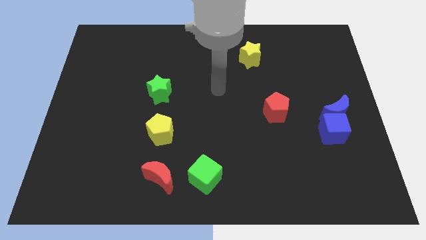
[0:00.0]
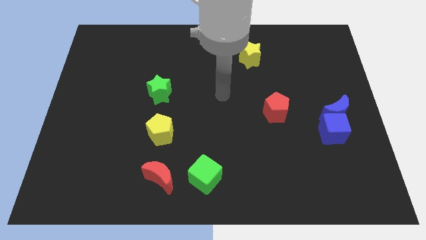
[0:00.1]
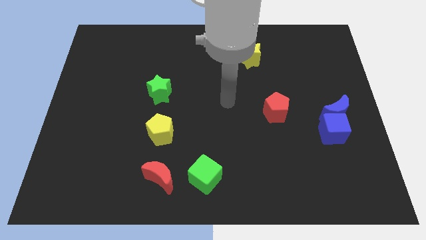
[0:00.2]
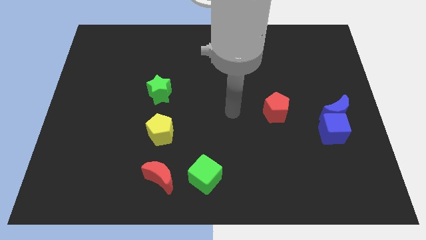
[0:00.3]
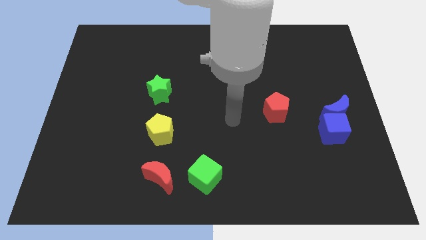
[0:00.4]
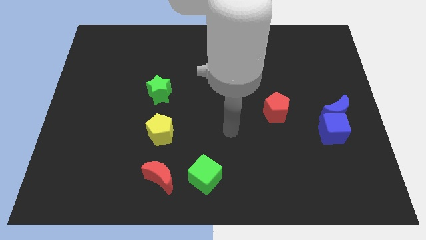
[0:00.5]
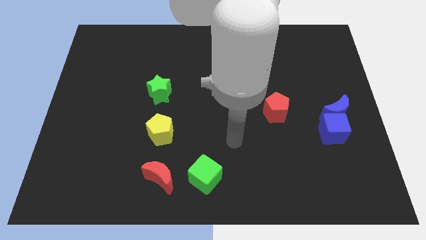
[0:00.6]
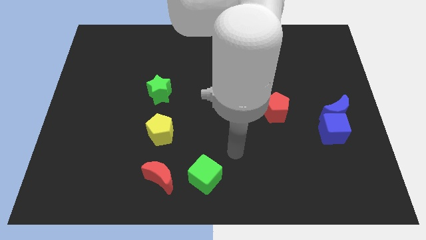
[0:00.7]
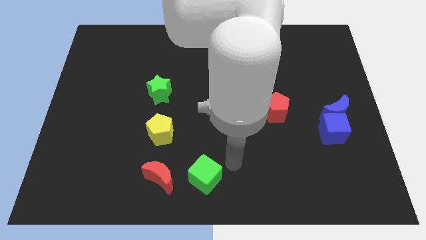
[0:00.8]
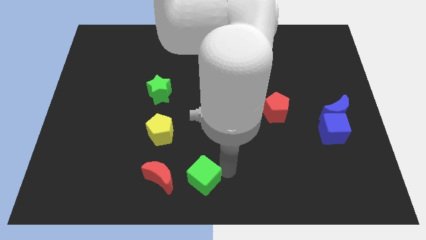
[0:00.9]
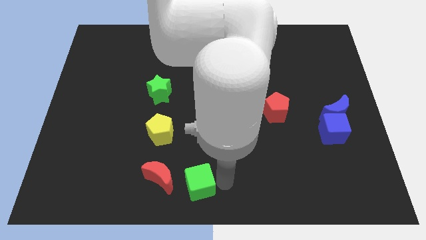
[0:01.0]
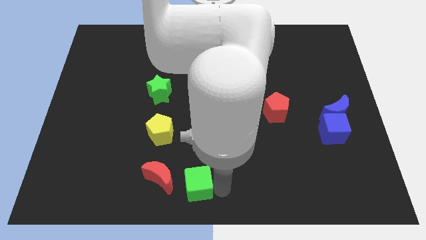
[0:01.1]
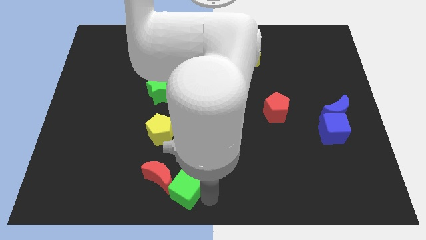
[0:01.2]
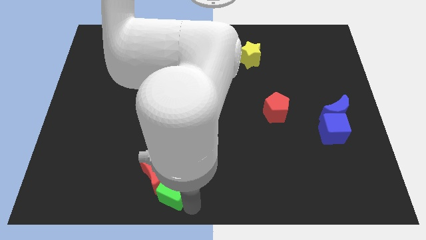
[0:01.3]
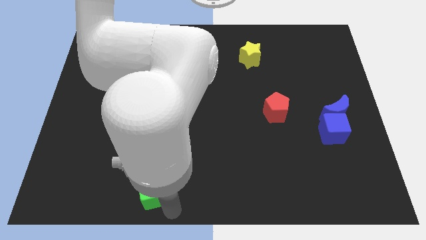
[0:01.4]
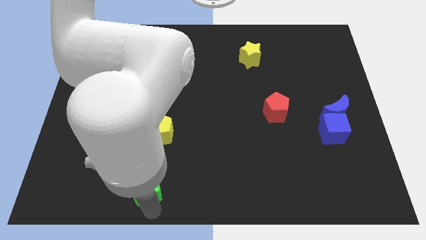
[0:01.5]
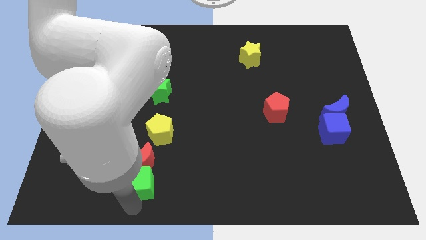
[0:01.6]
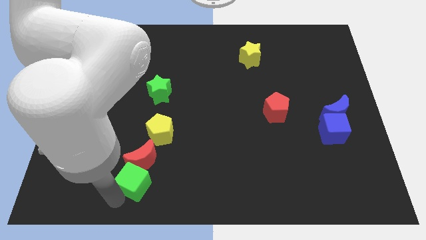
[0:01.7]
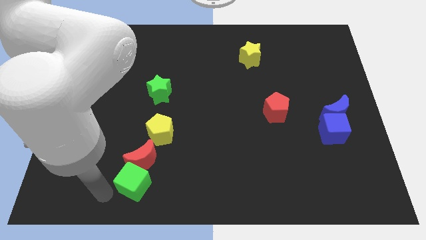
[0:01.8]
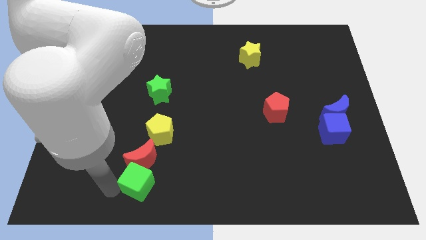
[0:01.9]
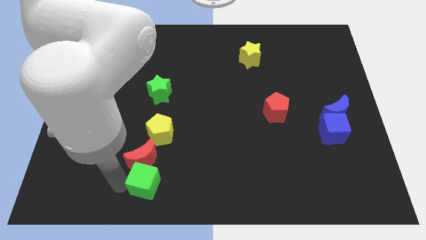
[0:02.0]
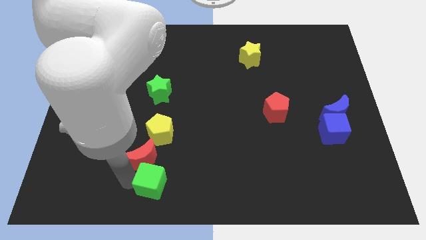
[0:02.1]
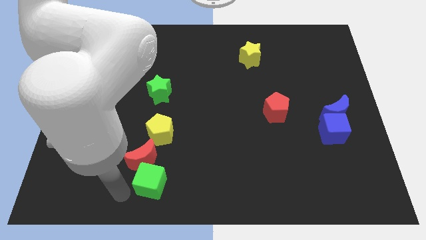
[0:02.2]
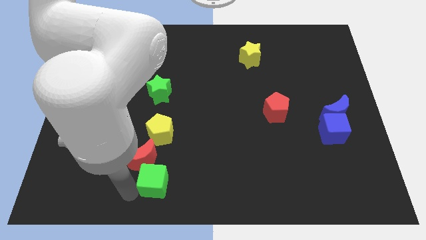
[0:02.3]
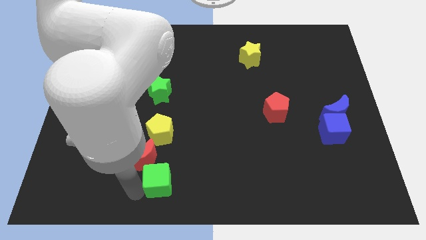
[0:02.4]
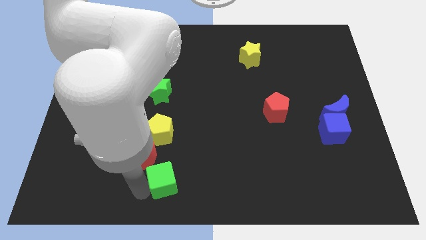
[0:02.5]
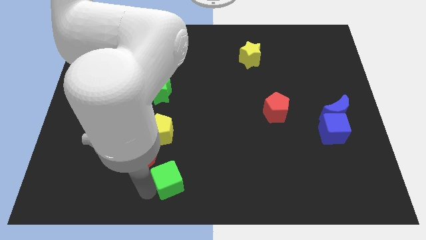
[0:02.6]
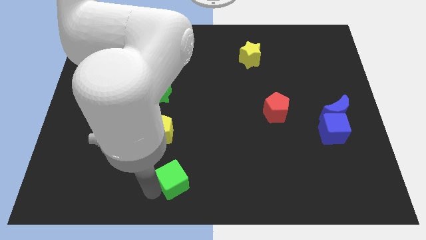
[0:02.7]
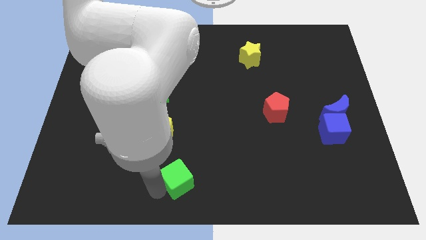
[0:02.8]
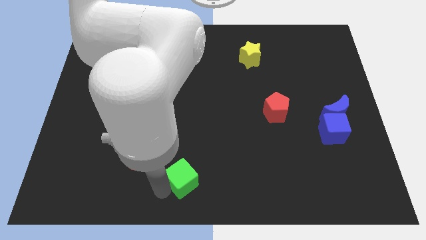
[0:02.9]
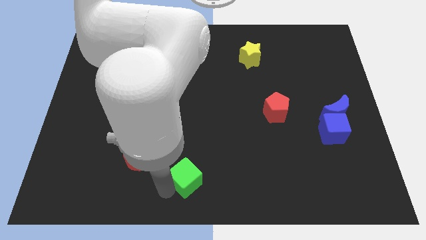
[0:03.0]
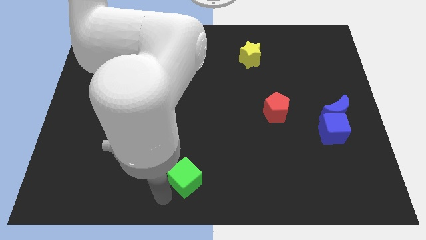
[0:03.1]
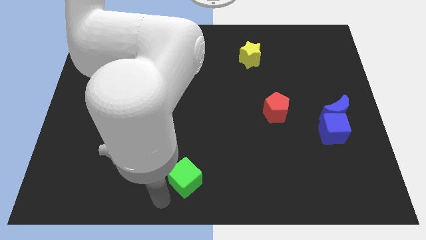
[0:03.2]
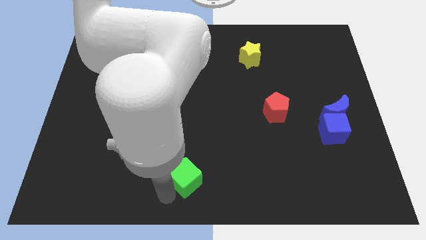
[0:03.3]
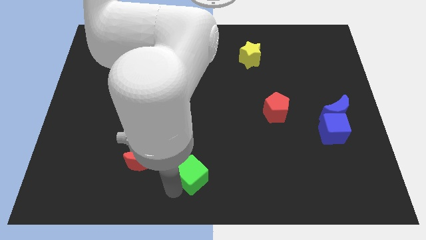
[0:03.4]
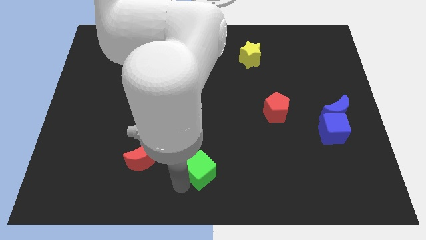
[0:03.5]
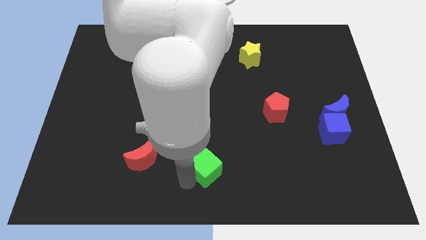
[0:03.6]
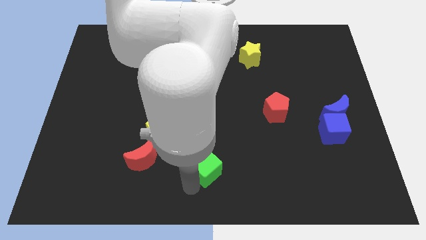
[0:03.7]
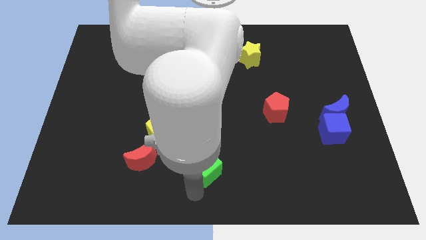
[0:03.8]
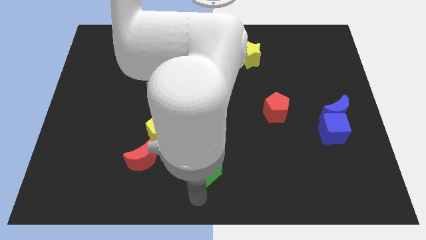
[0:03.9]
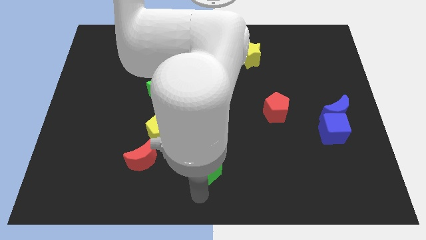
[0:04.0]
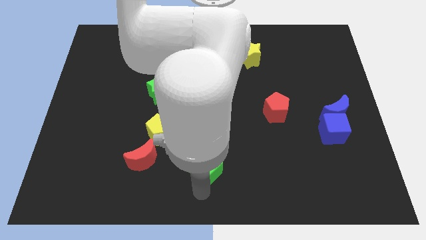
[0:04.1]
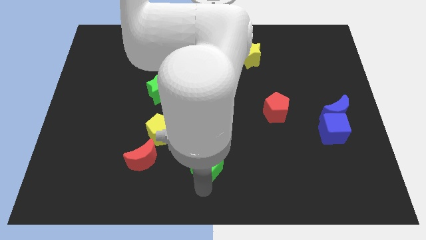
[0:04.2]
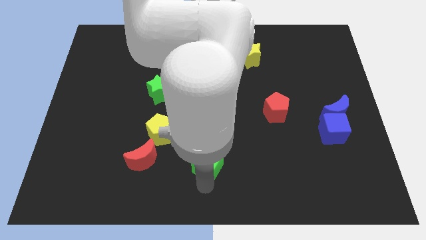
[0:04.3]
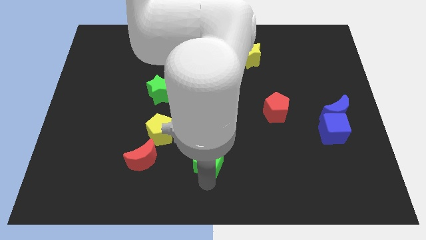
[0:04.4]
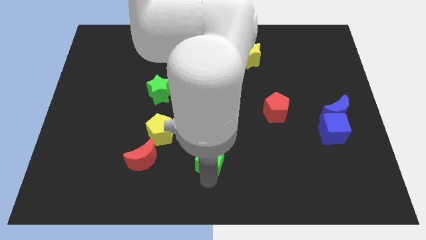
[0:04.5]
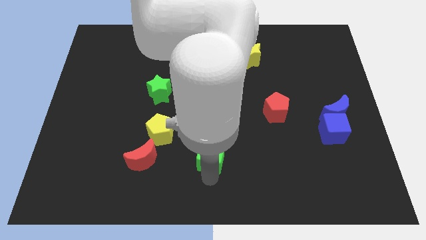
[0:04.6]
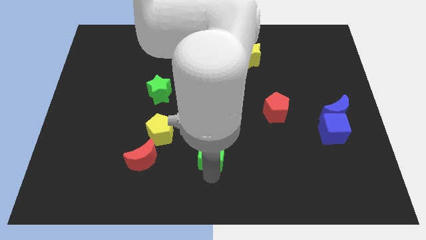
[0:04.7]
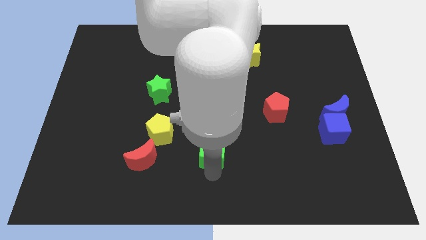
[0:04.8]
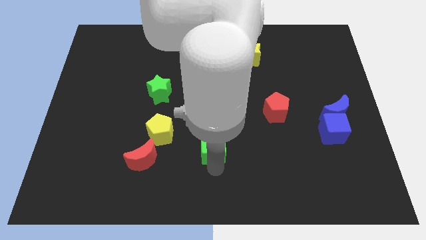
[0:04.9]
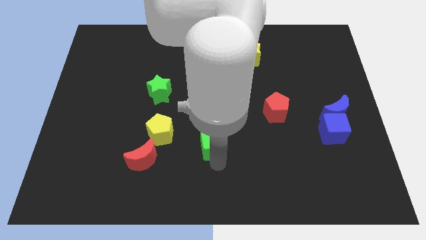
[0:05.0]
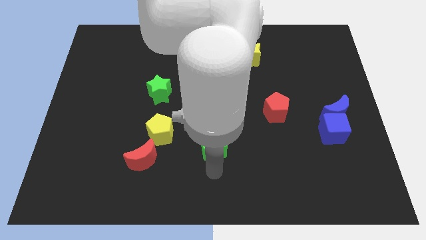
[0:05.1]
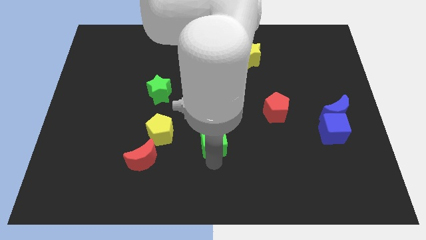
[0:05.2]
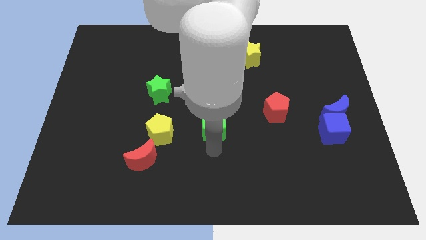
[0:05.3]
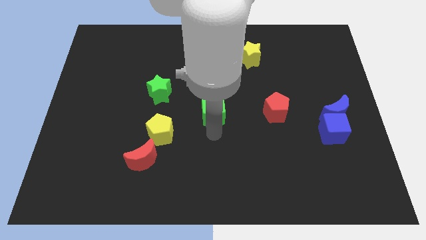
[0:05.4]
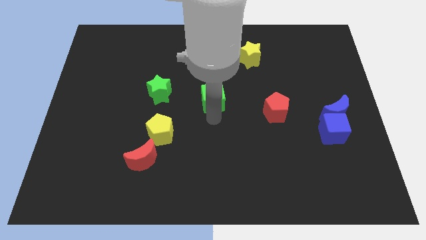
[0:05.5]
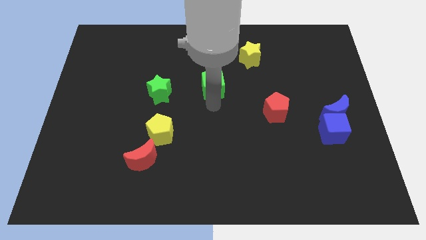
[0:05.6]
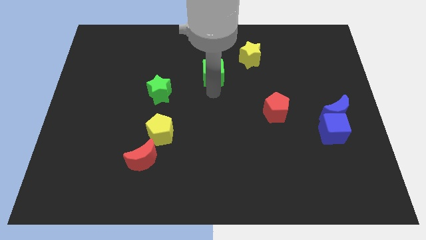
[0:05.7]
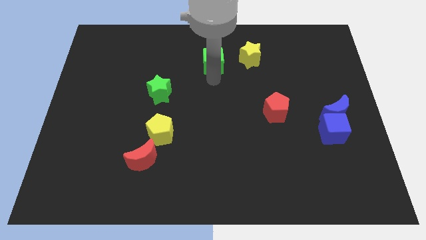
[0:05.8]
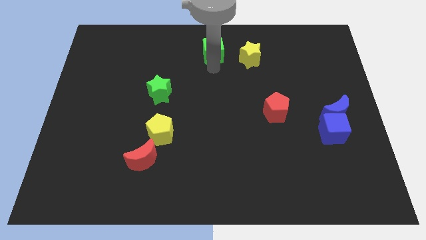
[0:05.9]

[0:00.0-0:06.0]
push the green cube to the top

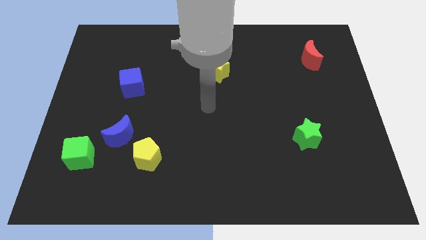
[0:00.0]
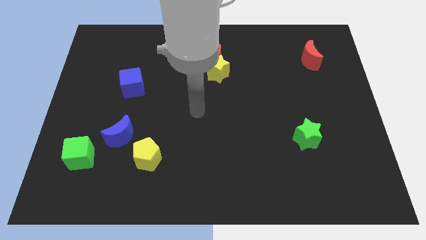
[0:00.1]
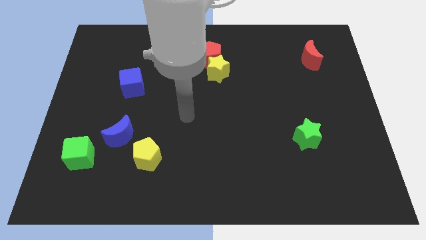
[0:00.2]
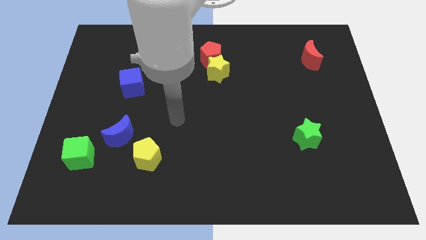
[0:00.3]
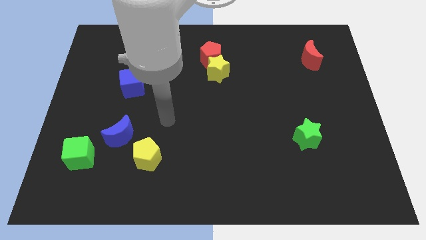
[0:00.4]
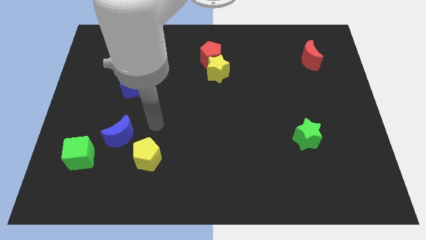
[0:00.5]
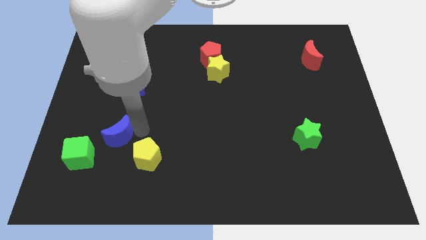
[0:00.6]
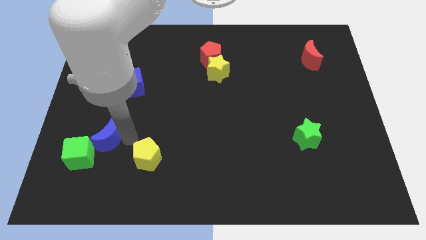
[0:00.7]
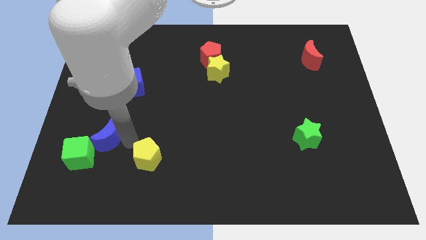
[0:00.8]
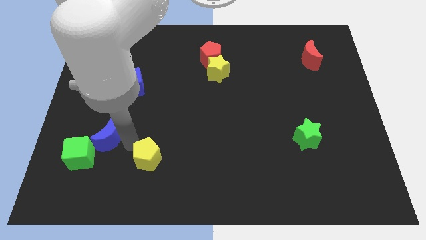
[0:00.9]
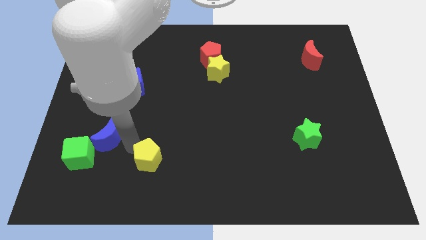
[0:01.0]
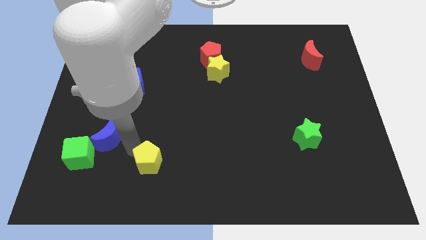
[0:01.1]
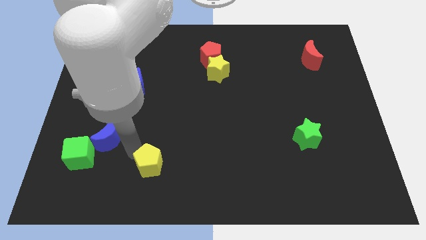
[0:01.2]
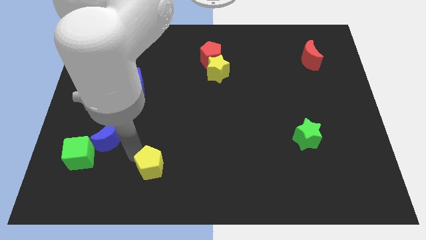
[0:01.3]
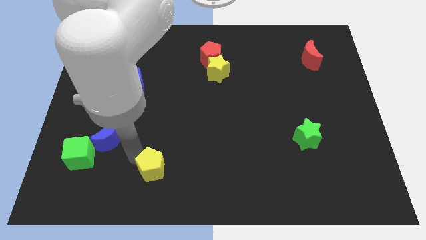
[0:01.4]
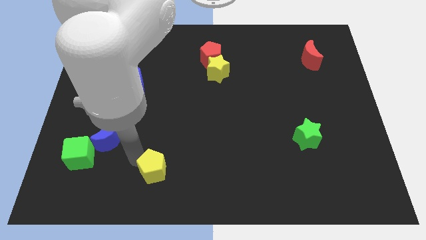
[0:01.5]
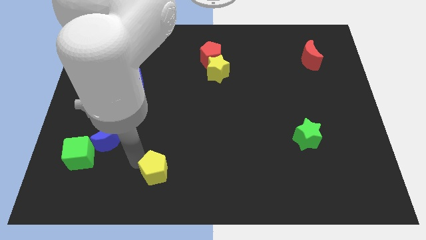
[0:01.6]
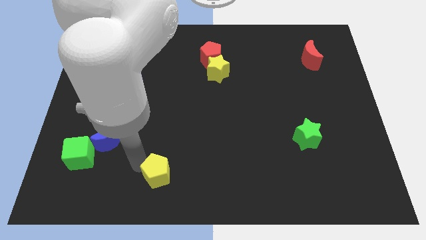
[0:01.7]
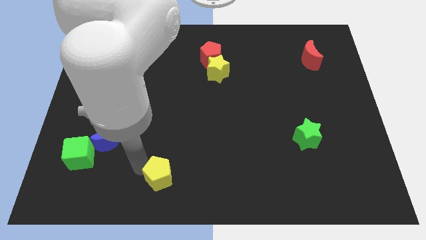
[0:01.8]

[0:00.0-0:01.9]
slide the yellow pentagon to the bottom side
